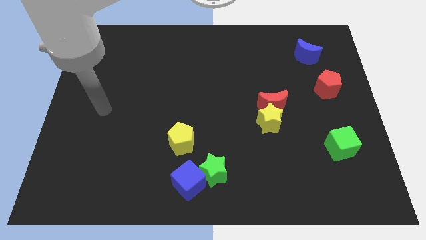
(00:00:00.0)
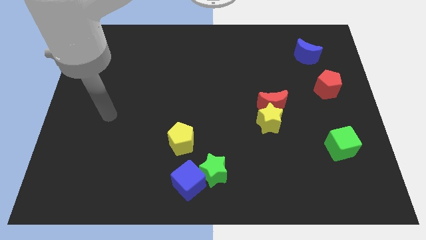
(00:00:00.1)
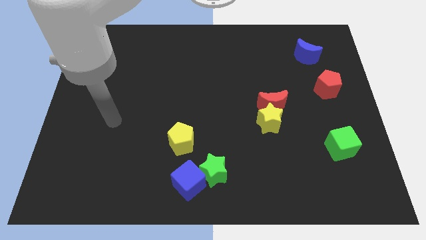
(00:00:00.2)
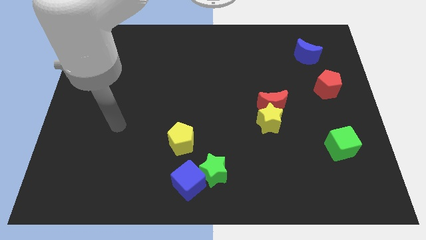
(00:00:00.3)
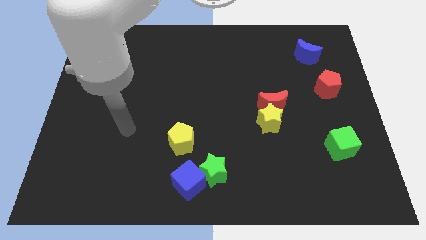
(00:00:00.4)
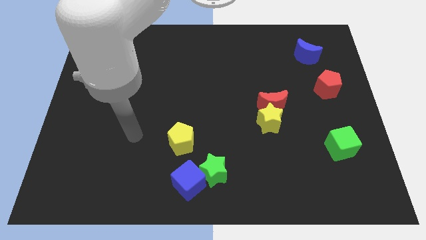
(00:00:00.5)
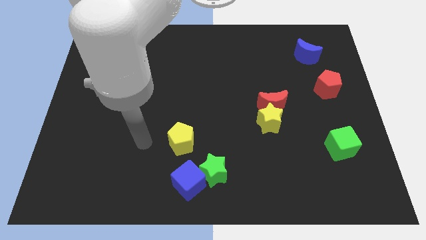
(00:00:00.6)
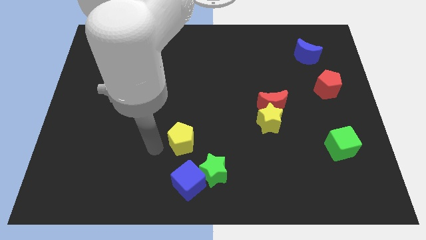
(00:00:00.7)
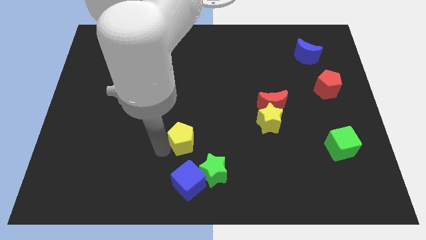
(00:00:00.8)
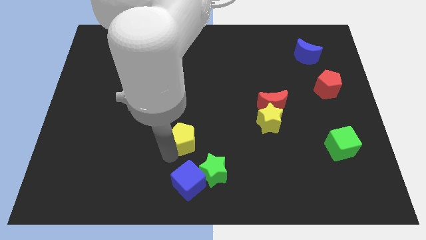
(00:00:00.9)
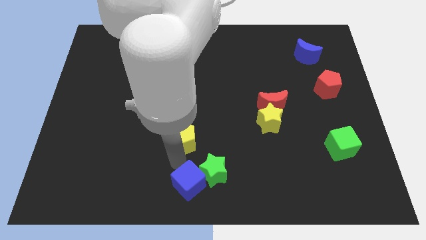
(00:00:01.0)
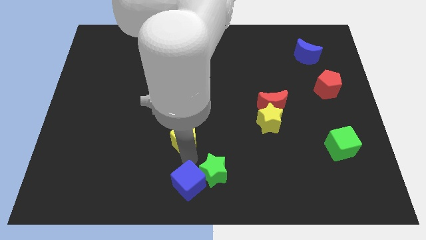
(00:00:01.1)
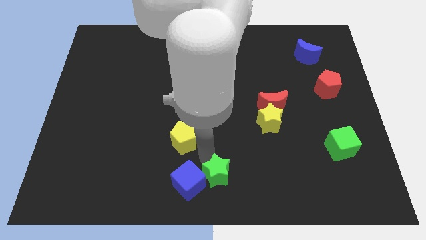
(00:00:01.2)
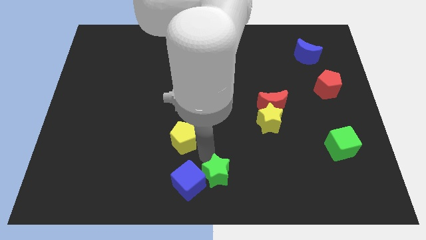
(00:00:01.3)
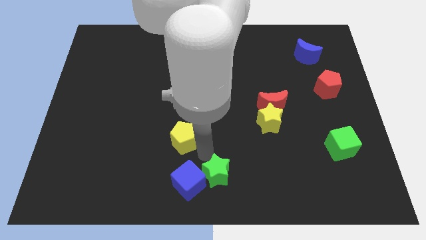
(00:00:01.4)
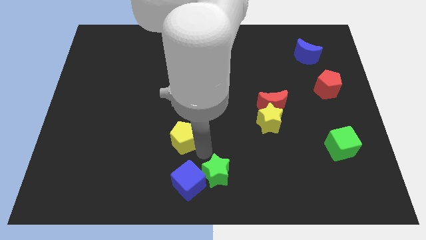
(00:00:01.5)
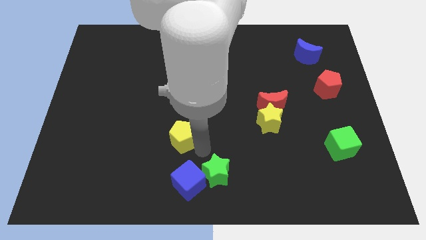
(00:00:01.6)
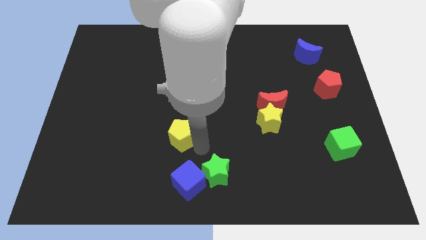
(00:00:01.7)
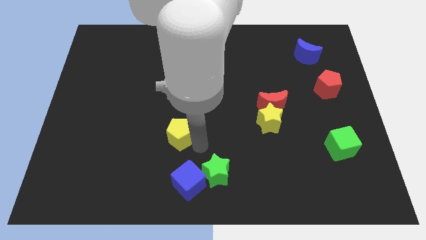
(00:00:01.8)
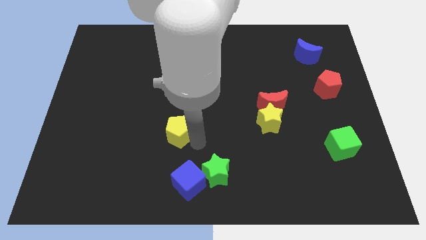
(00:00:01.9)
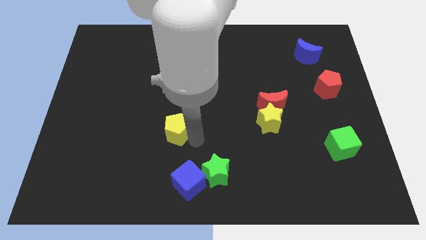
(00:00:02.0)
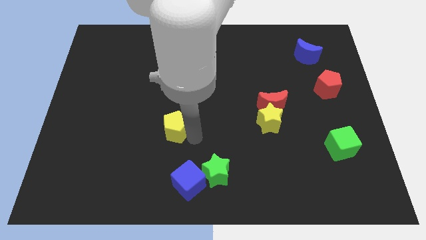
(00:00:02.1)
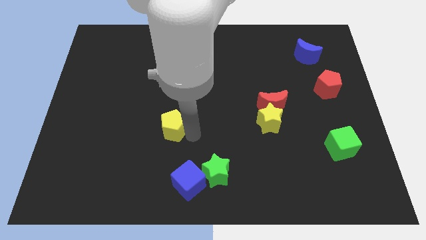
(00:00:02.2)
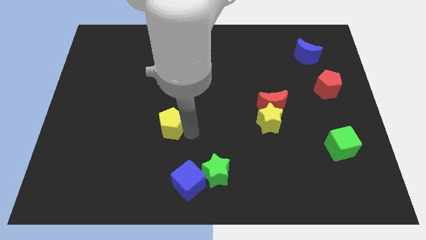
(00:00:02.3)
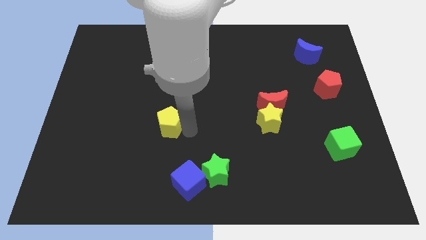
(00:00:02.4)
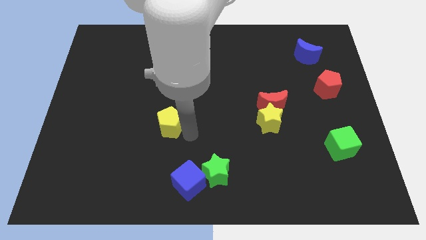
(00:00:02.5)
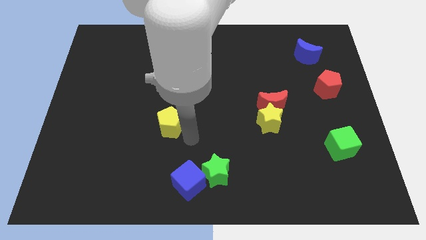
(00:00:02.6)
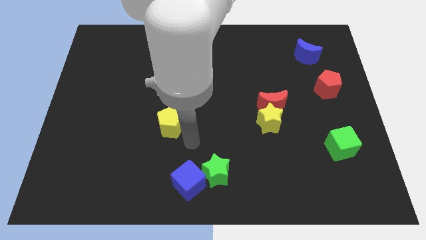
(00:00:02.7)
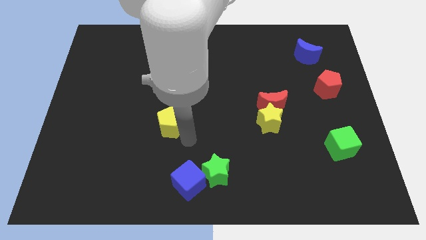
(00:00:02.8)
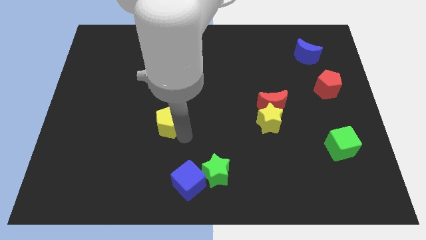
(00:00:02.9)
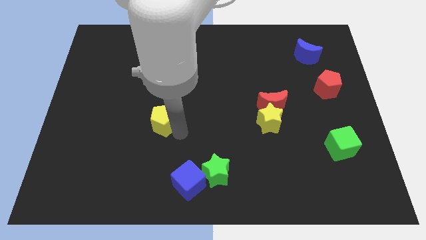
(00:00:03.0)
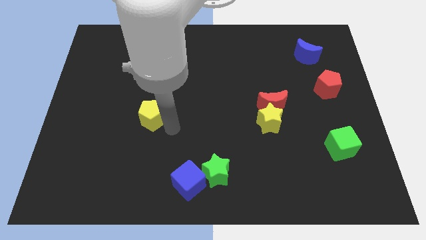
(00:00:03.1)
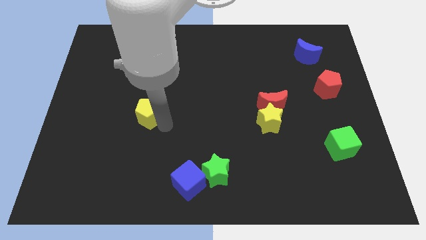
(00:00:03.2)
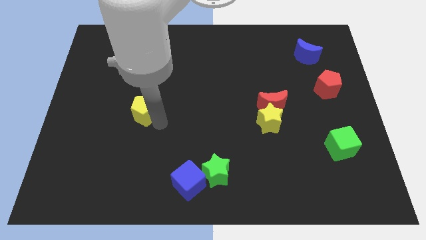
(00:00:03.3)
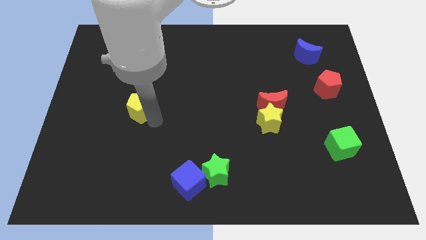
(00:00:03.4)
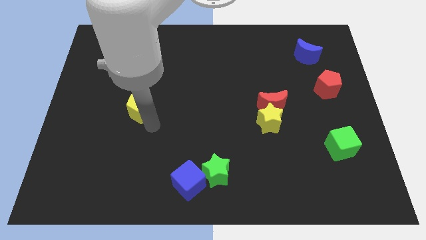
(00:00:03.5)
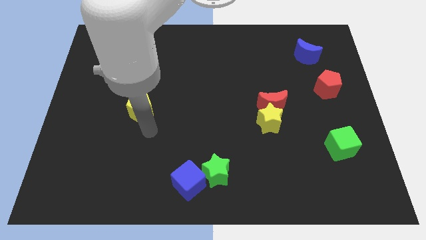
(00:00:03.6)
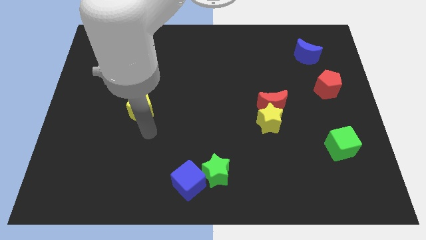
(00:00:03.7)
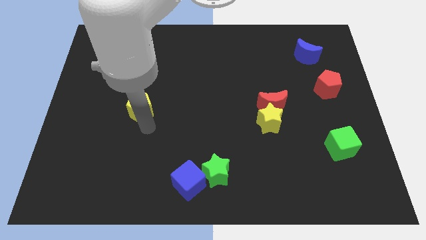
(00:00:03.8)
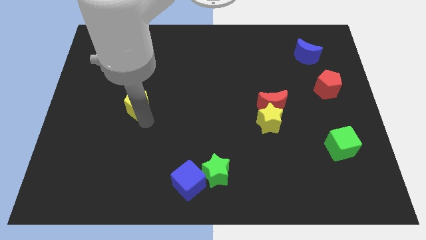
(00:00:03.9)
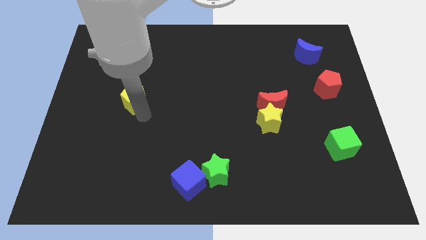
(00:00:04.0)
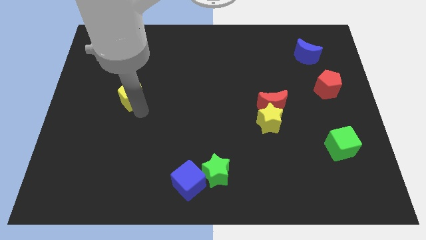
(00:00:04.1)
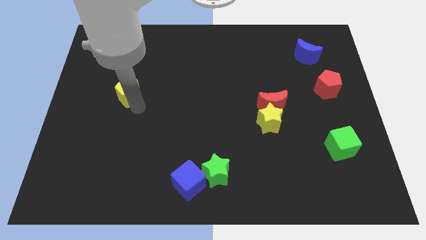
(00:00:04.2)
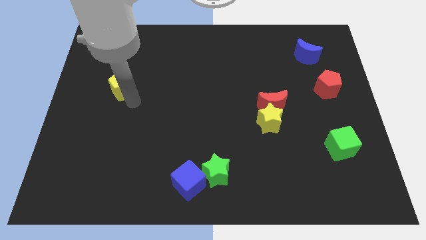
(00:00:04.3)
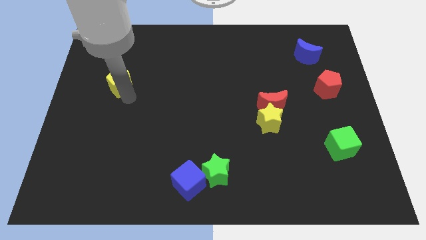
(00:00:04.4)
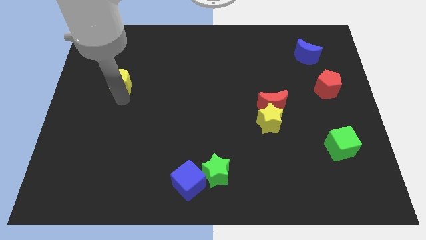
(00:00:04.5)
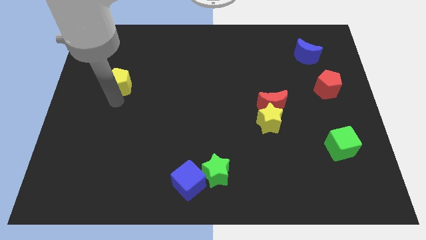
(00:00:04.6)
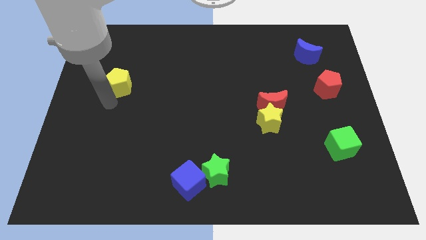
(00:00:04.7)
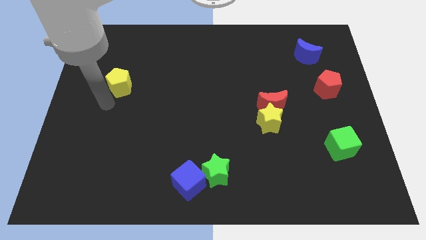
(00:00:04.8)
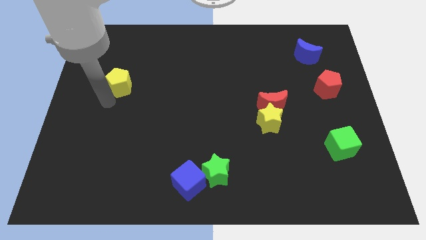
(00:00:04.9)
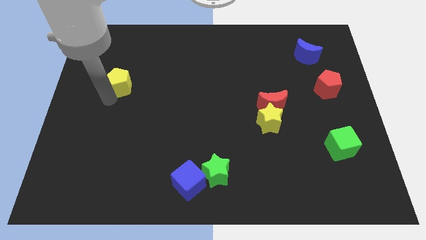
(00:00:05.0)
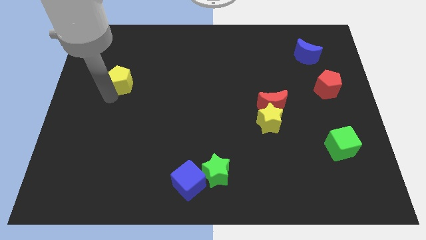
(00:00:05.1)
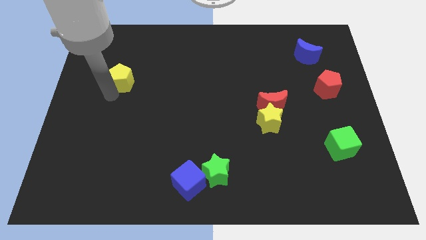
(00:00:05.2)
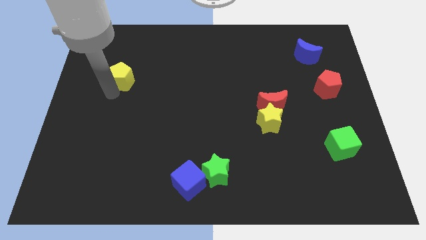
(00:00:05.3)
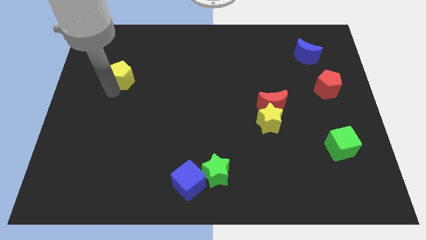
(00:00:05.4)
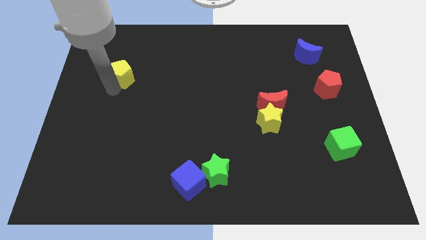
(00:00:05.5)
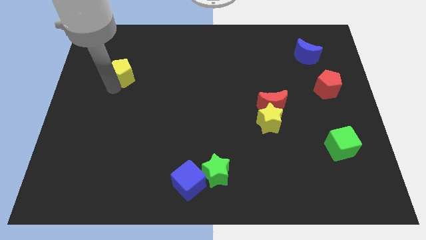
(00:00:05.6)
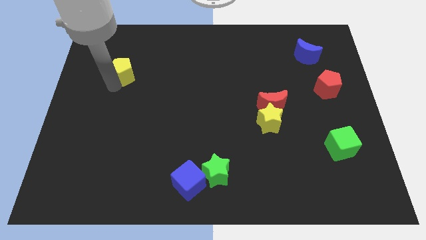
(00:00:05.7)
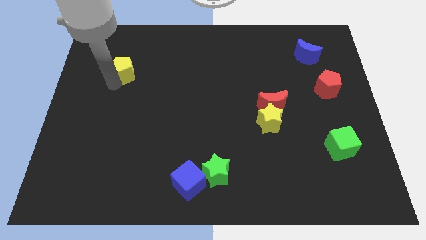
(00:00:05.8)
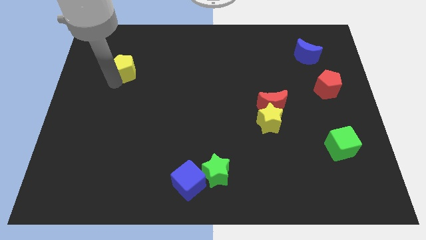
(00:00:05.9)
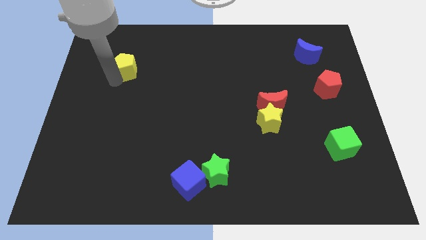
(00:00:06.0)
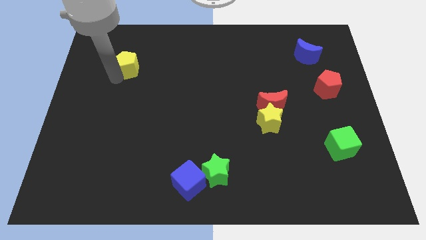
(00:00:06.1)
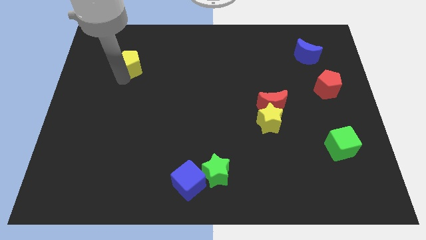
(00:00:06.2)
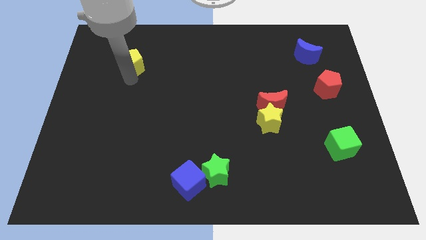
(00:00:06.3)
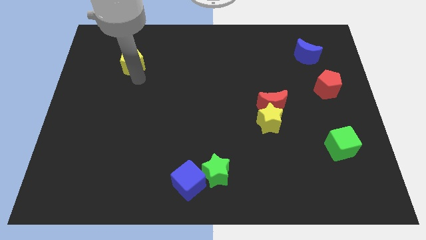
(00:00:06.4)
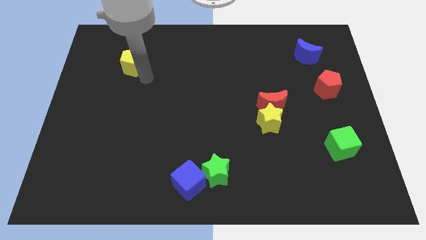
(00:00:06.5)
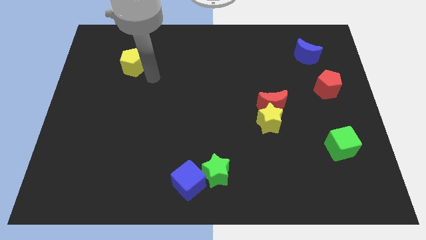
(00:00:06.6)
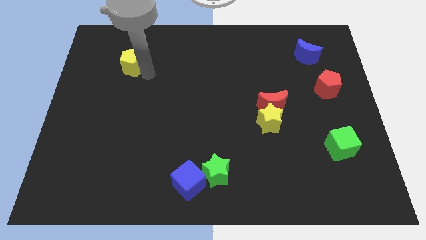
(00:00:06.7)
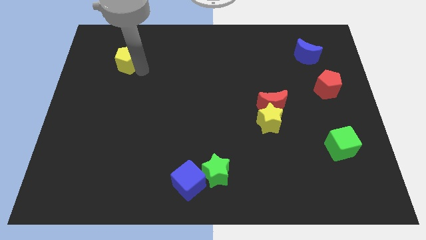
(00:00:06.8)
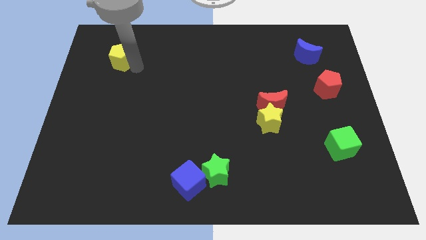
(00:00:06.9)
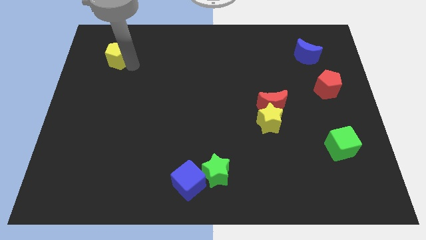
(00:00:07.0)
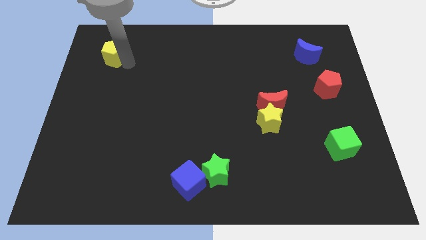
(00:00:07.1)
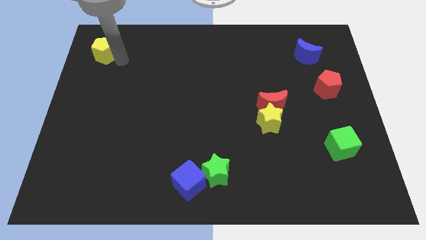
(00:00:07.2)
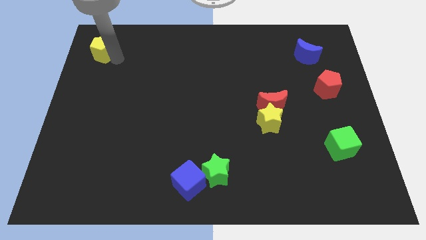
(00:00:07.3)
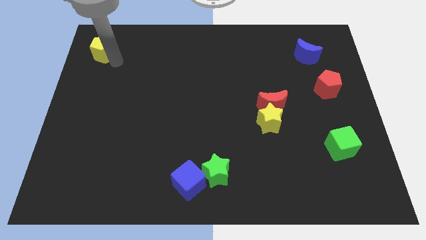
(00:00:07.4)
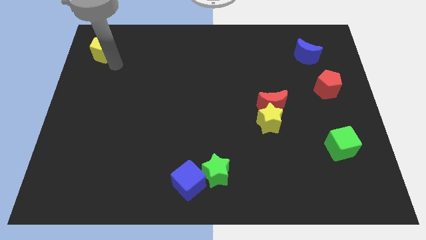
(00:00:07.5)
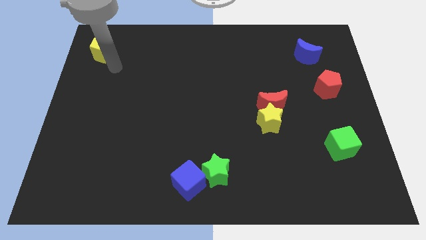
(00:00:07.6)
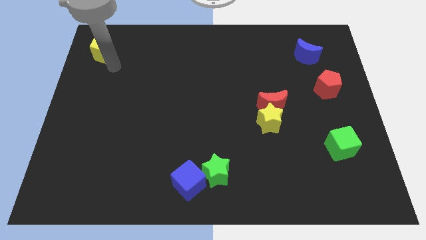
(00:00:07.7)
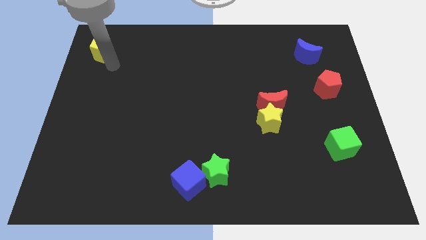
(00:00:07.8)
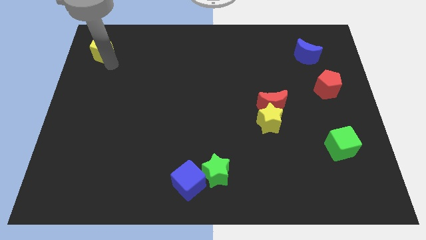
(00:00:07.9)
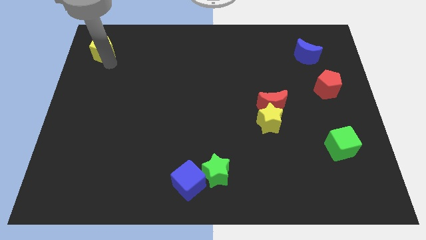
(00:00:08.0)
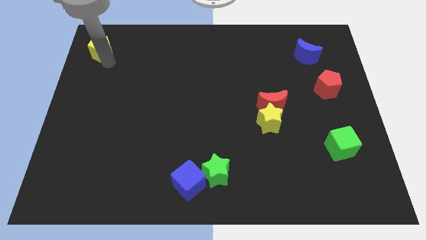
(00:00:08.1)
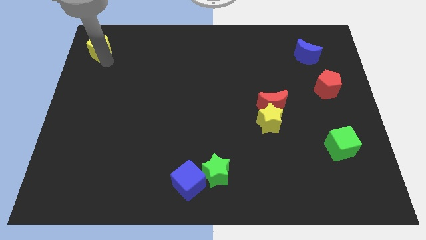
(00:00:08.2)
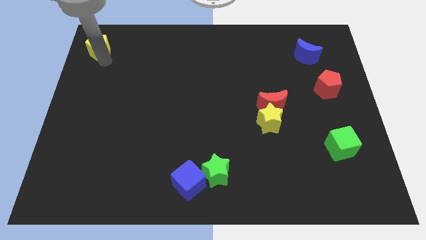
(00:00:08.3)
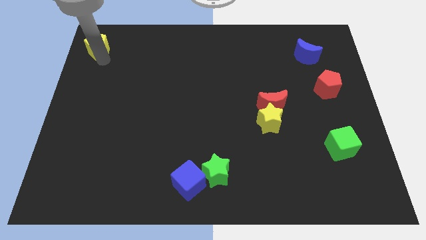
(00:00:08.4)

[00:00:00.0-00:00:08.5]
move the yellow pentagon to the top left
